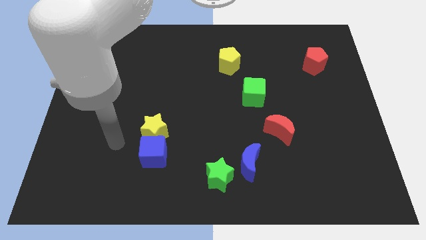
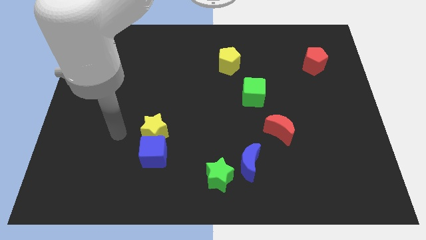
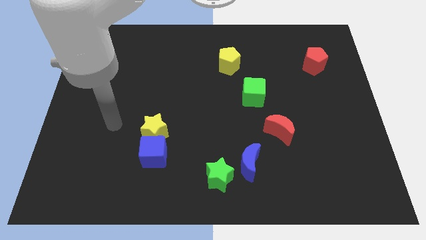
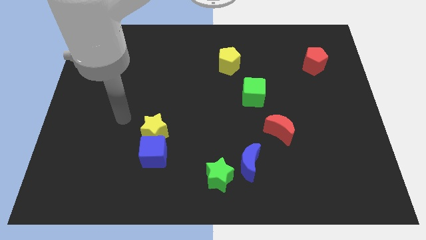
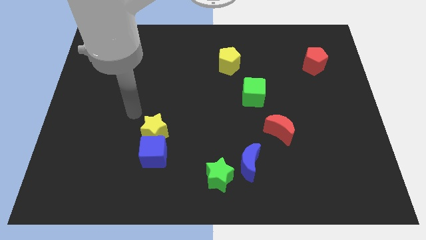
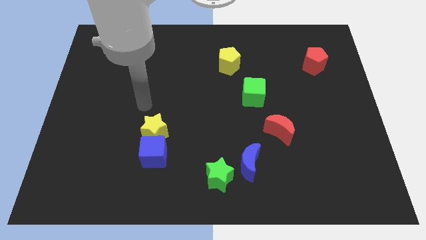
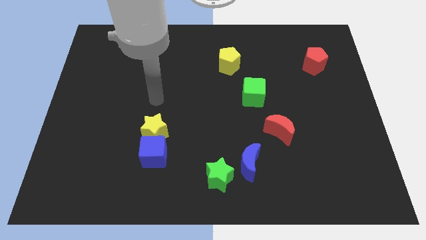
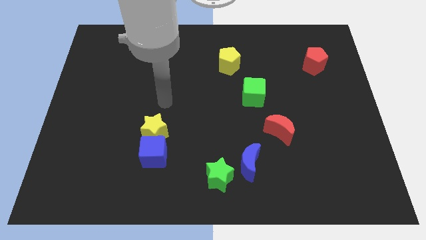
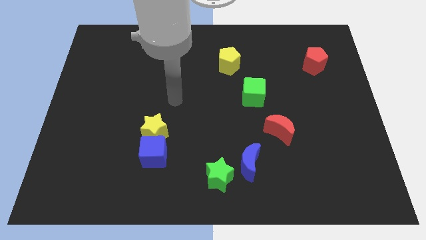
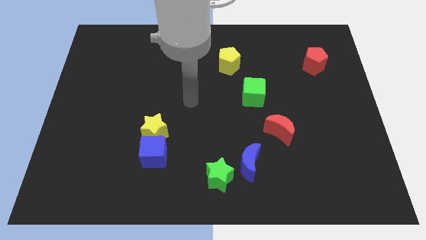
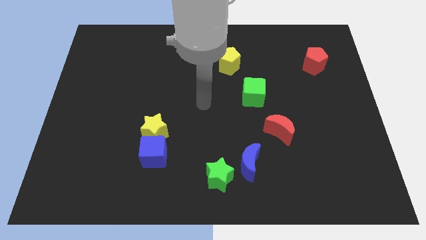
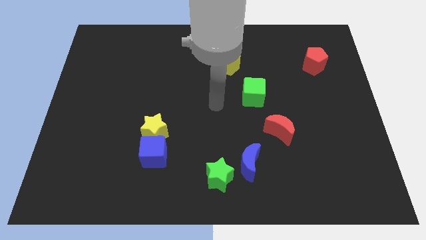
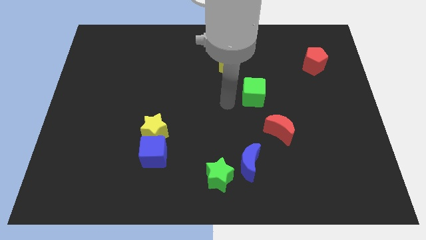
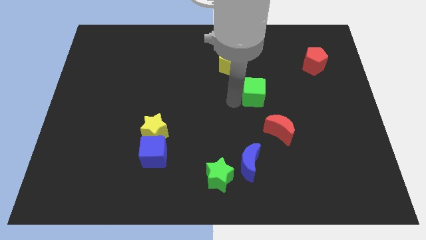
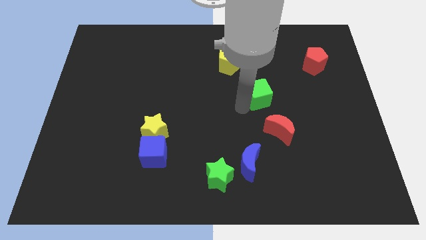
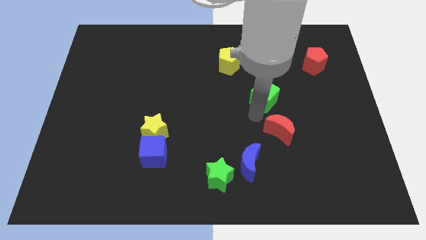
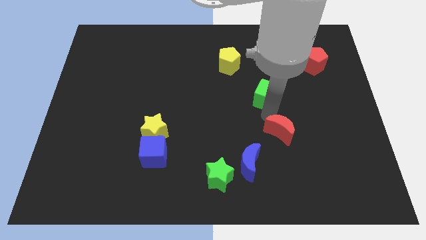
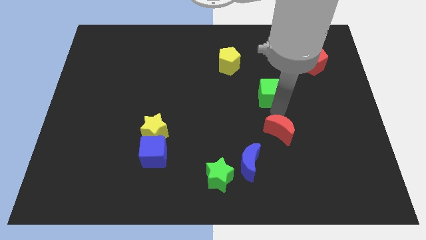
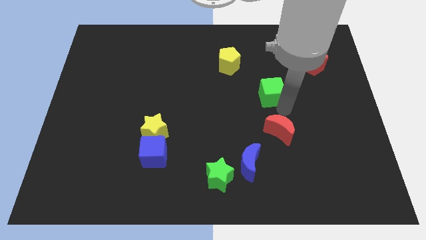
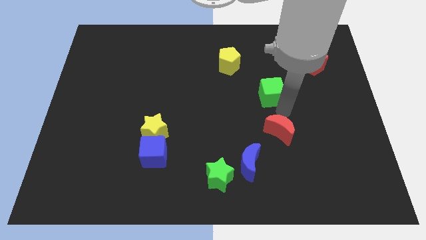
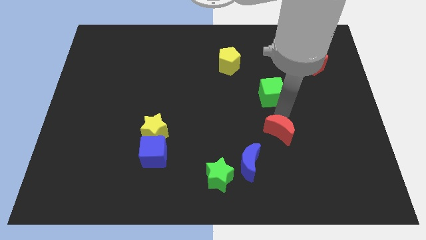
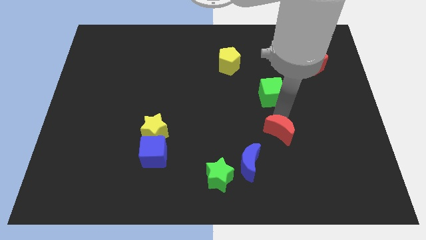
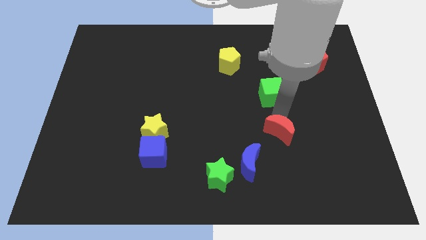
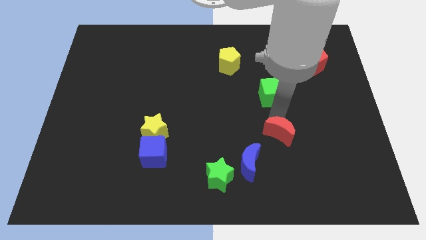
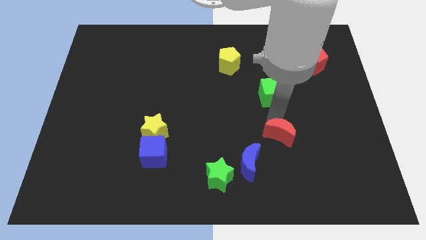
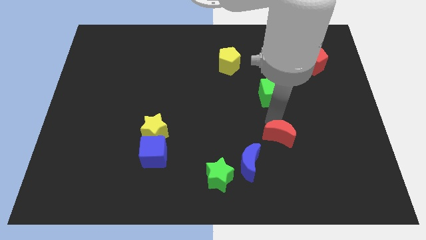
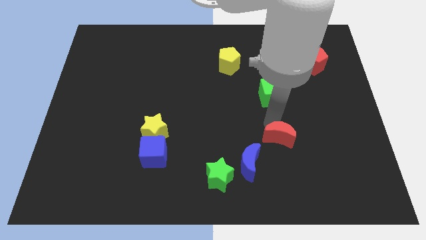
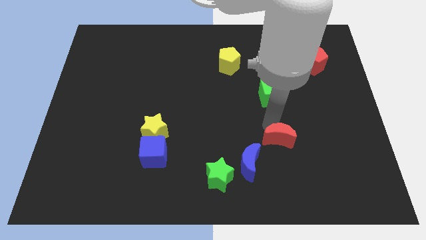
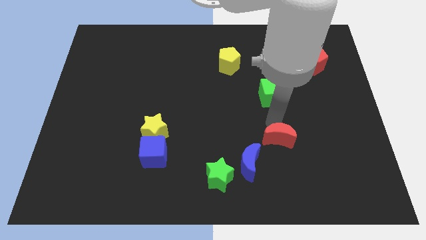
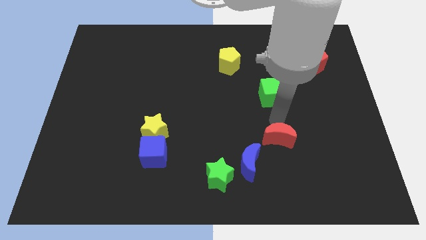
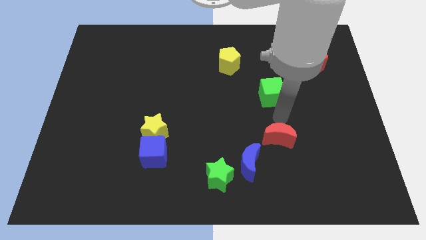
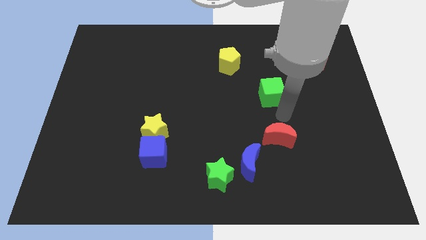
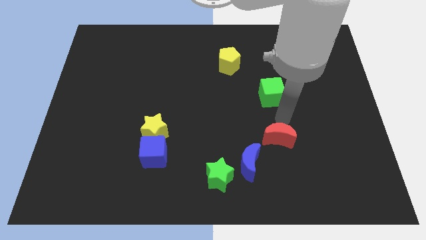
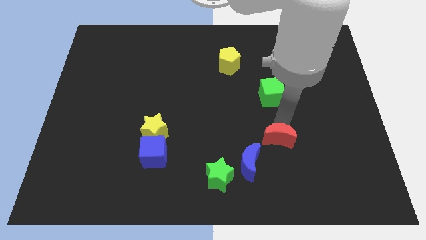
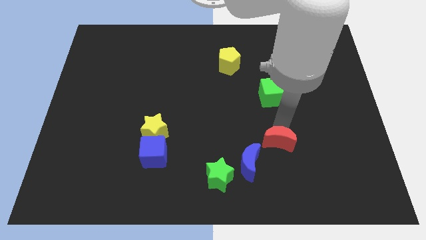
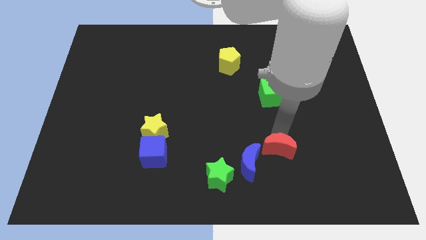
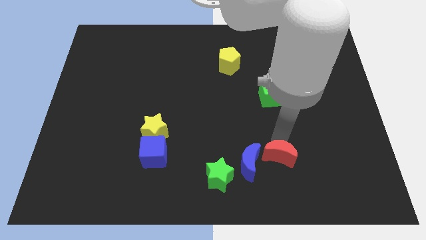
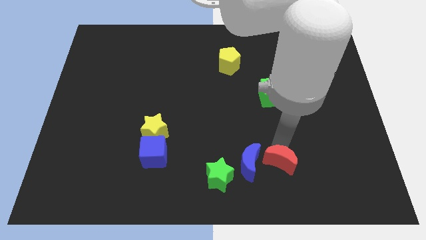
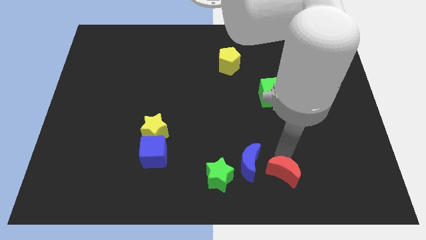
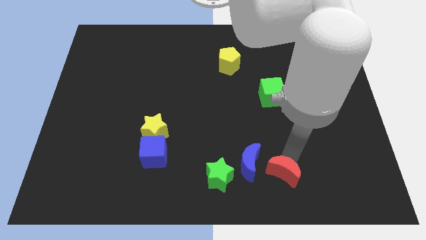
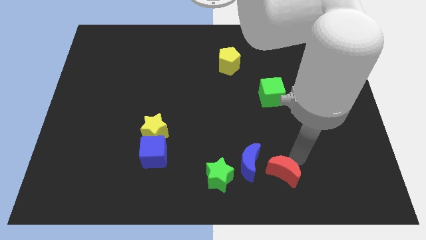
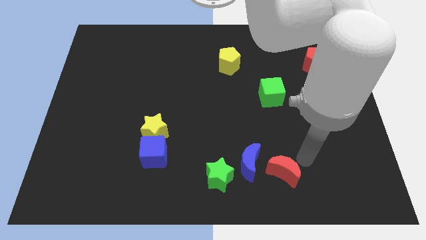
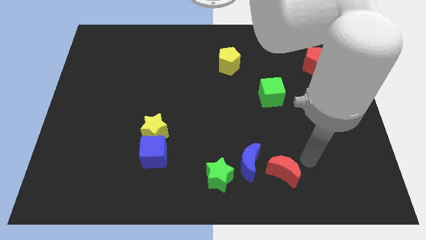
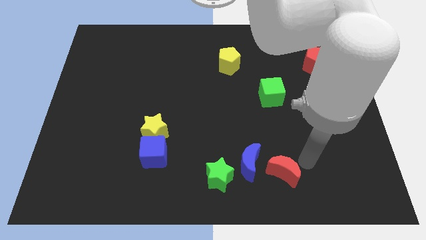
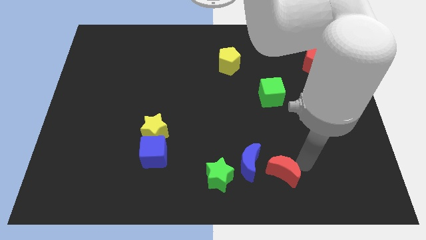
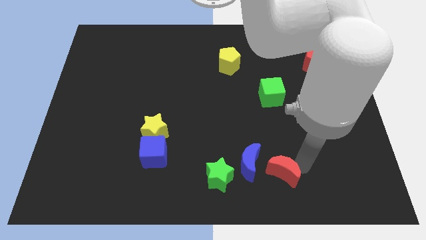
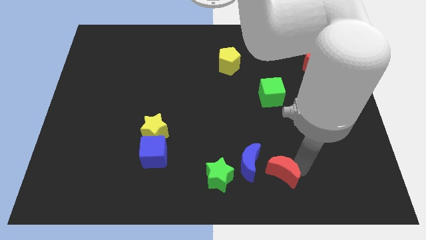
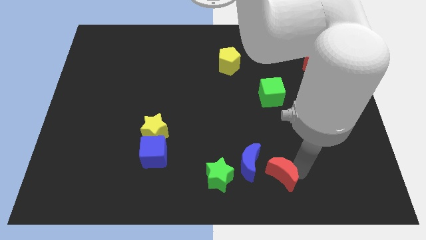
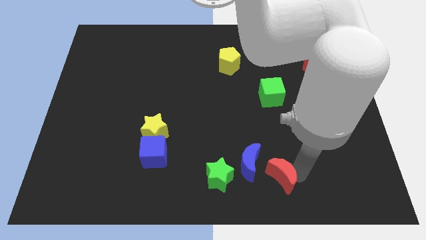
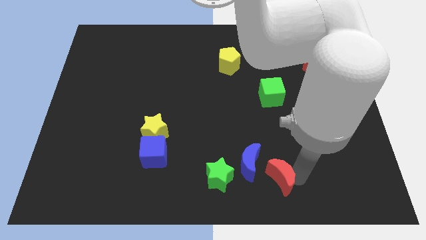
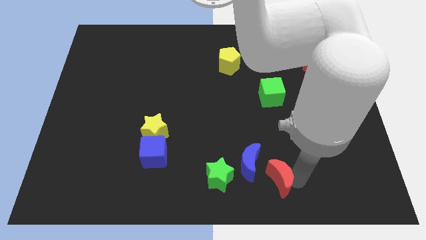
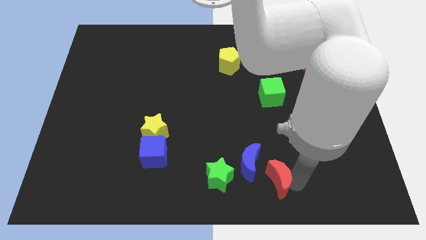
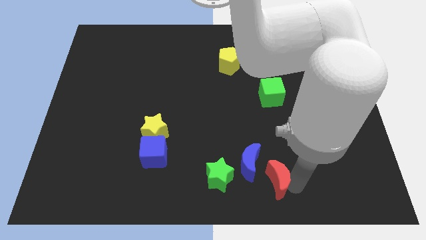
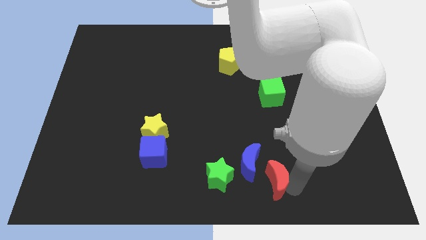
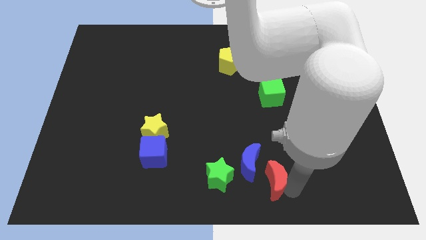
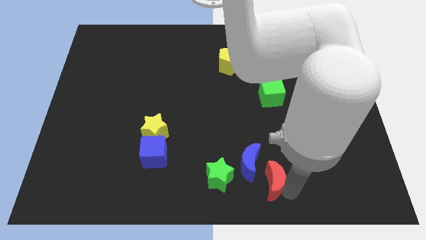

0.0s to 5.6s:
put the red moon to the bottom
